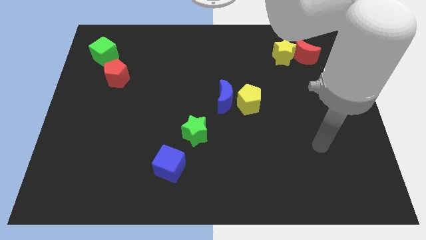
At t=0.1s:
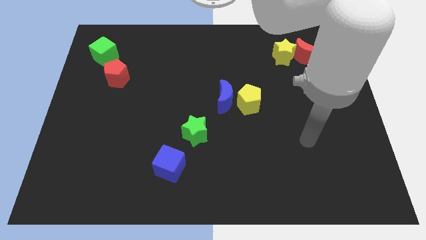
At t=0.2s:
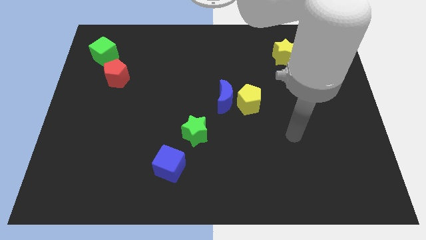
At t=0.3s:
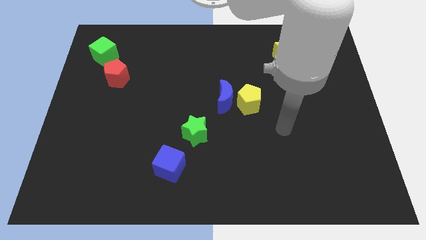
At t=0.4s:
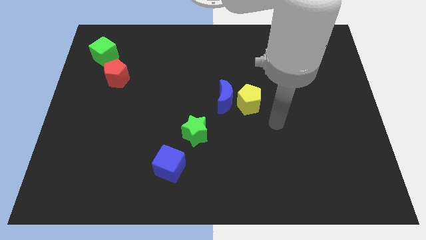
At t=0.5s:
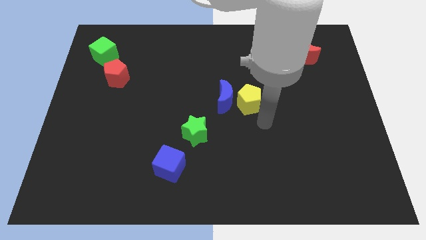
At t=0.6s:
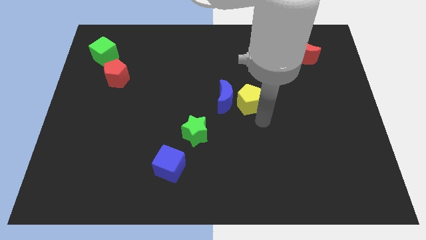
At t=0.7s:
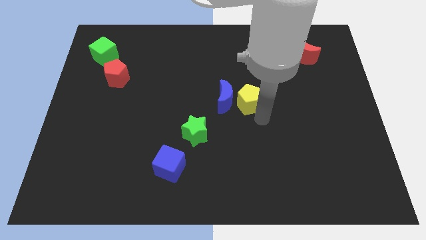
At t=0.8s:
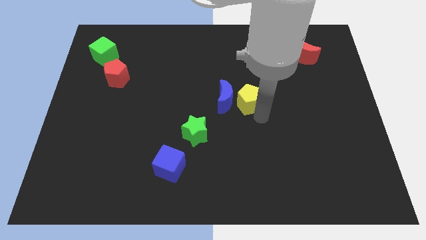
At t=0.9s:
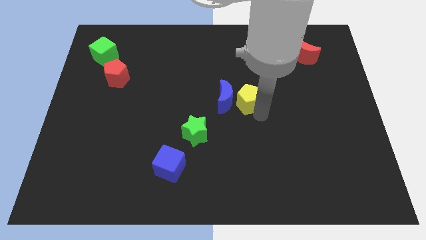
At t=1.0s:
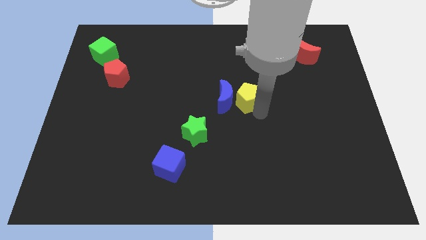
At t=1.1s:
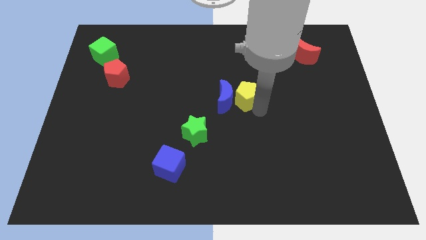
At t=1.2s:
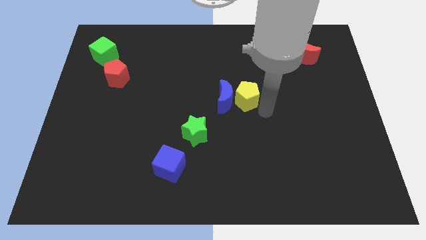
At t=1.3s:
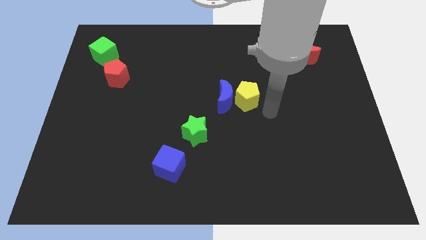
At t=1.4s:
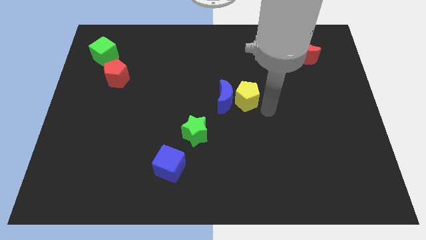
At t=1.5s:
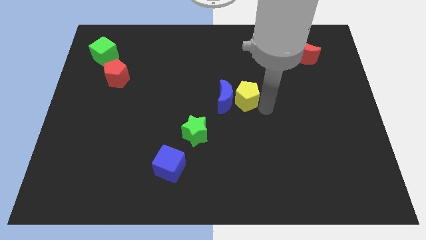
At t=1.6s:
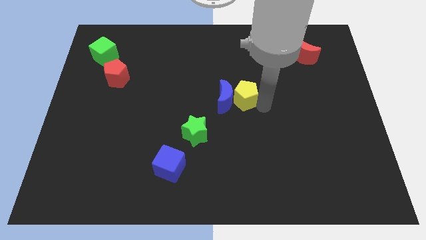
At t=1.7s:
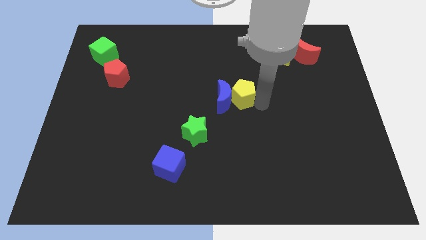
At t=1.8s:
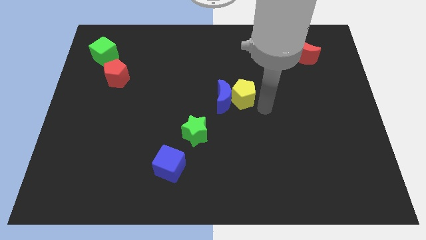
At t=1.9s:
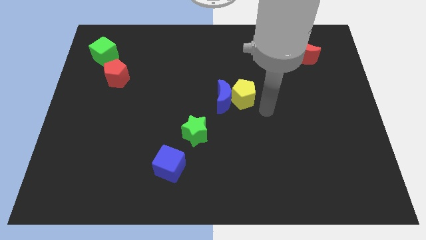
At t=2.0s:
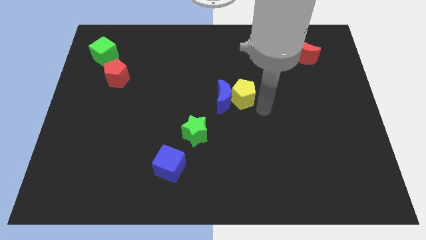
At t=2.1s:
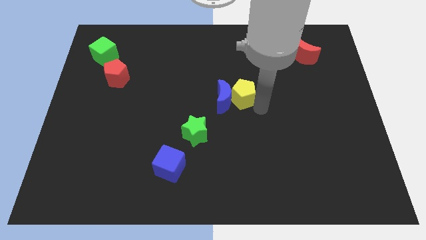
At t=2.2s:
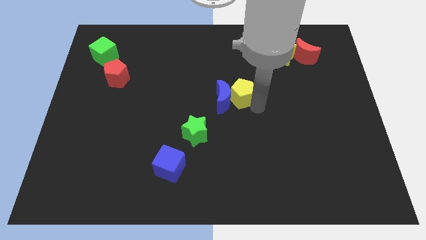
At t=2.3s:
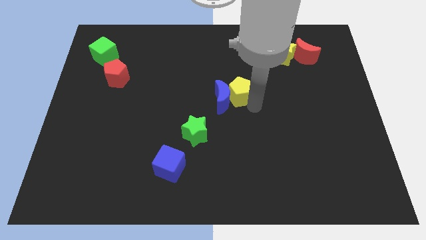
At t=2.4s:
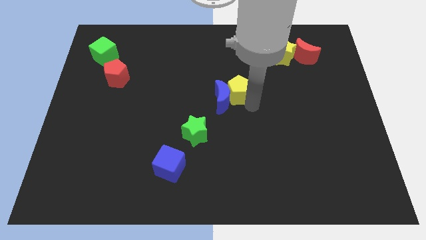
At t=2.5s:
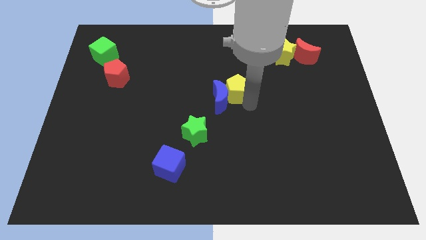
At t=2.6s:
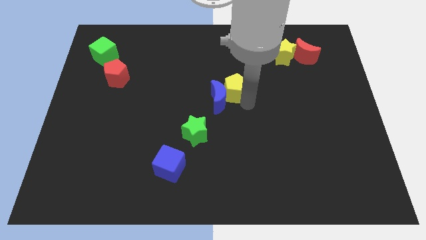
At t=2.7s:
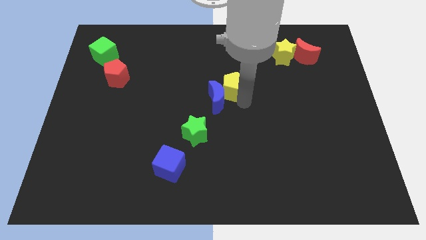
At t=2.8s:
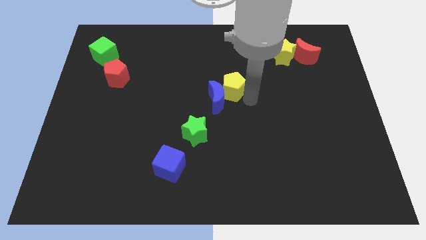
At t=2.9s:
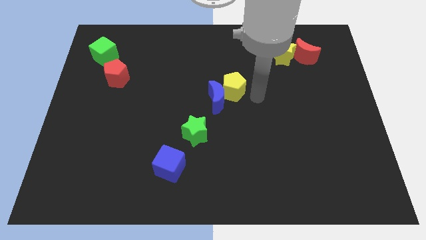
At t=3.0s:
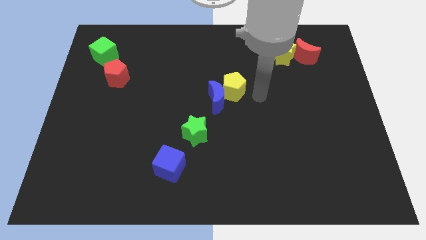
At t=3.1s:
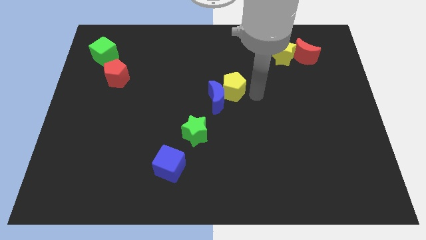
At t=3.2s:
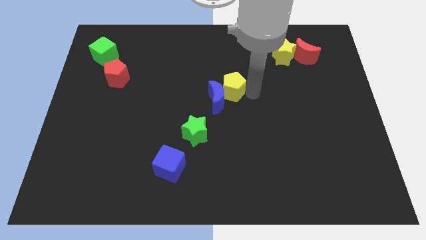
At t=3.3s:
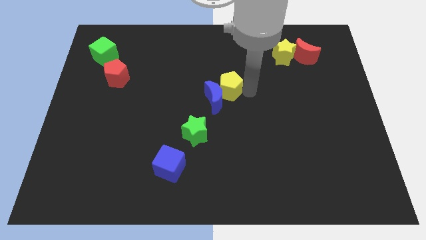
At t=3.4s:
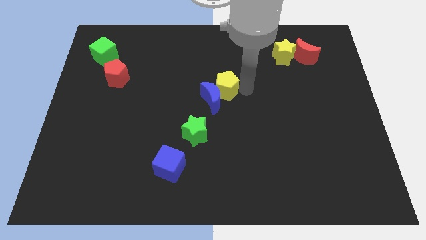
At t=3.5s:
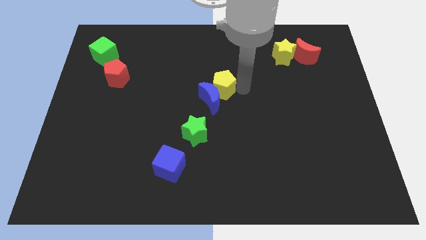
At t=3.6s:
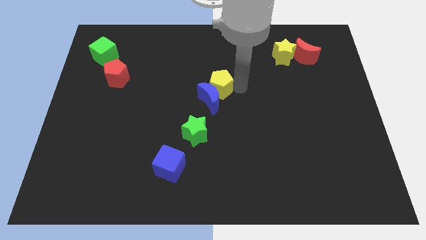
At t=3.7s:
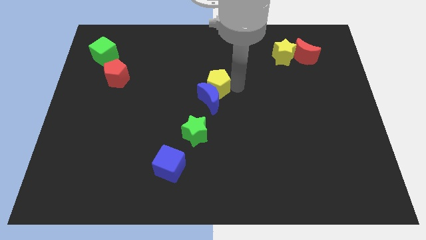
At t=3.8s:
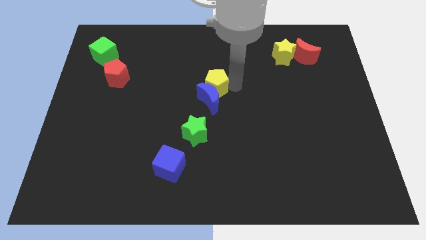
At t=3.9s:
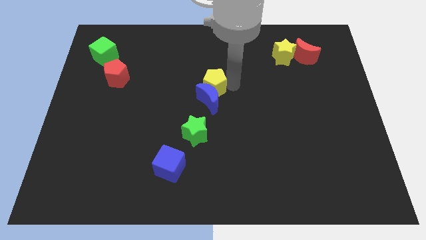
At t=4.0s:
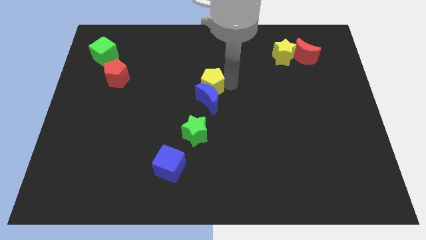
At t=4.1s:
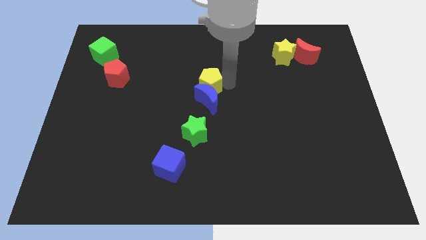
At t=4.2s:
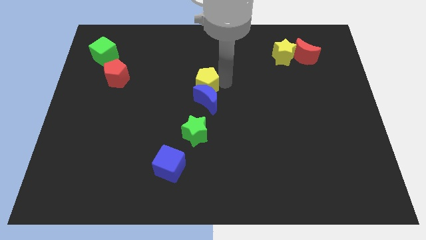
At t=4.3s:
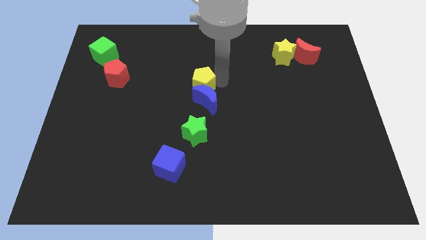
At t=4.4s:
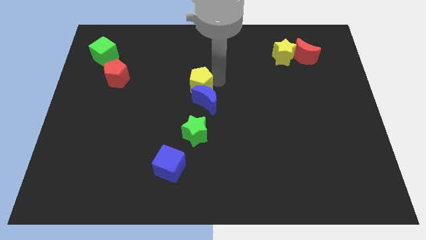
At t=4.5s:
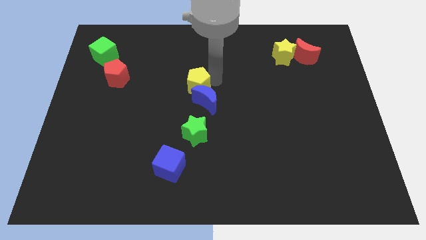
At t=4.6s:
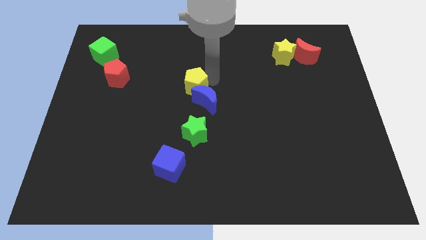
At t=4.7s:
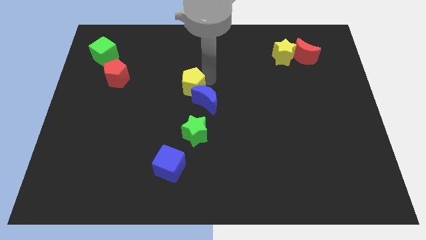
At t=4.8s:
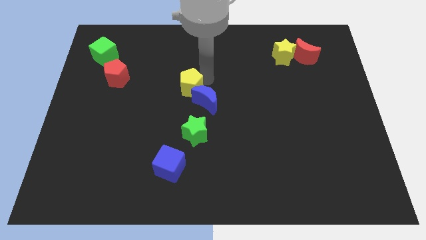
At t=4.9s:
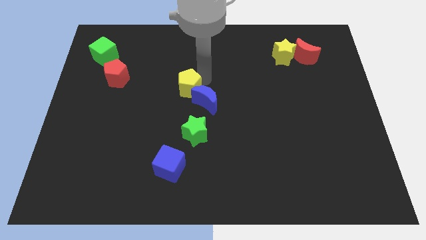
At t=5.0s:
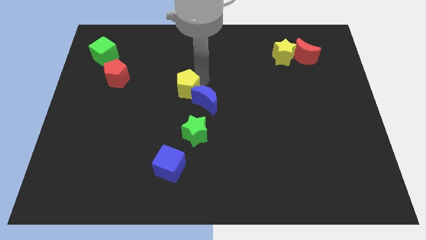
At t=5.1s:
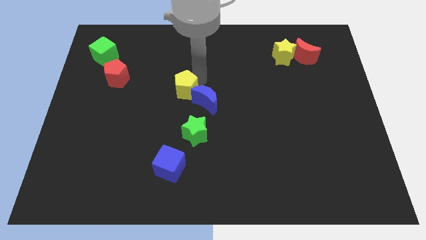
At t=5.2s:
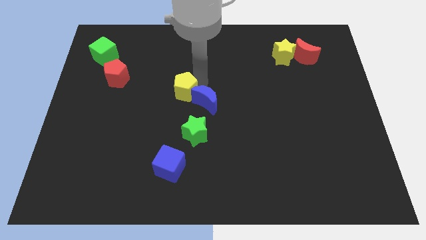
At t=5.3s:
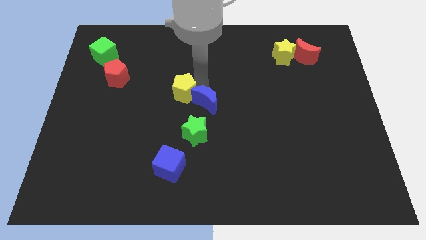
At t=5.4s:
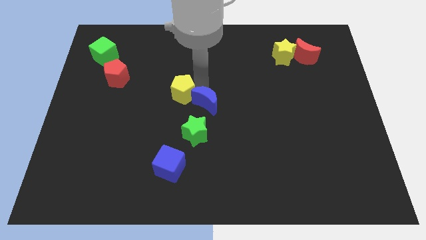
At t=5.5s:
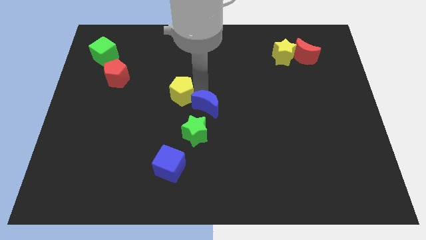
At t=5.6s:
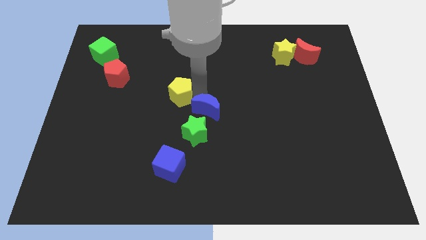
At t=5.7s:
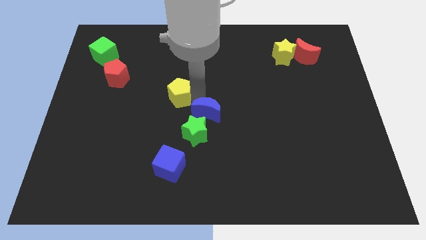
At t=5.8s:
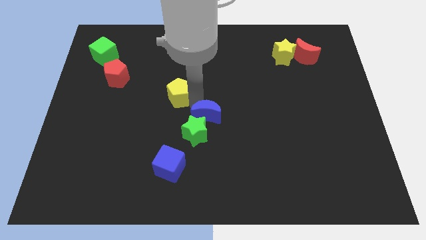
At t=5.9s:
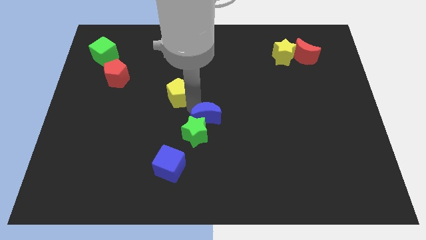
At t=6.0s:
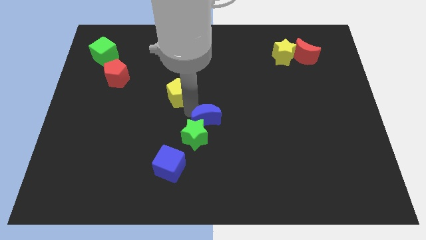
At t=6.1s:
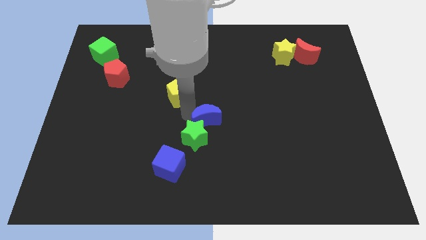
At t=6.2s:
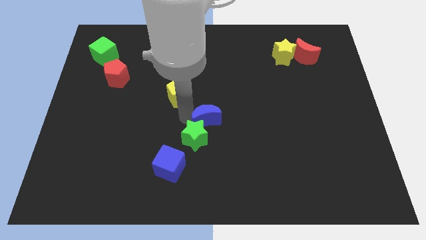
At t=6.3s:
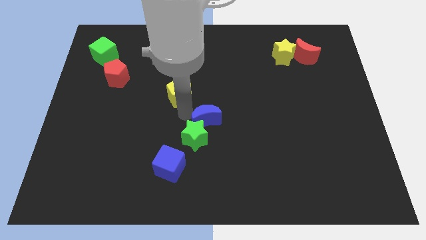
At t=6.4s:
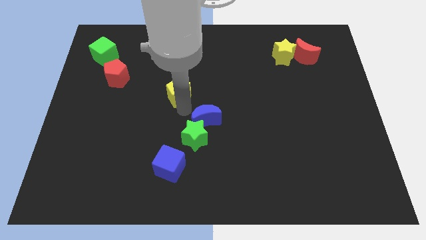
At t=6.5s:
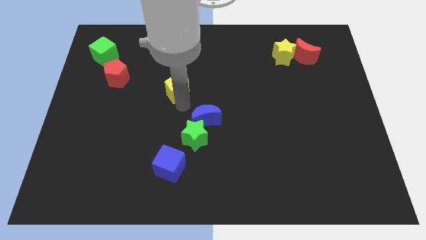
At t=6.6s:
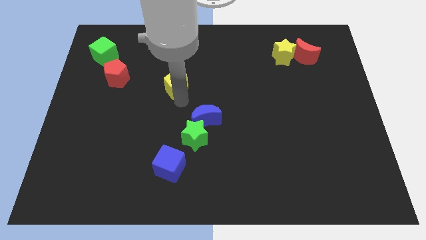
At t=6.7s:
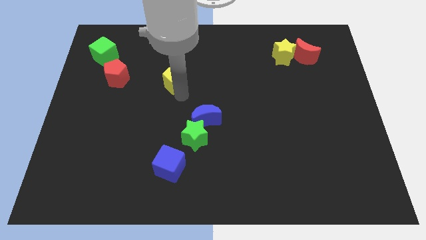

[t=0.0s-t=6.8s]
put the yellow pentagon just right of the red pentagon

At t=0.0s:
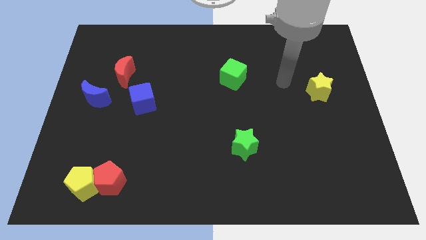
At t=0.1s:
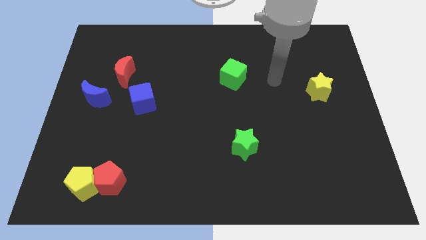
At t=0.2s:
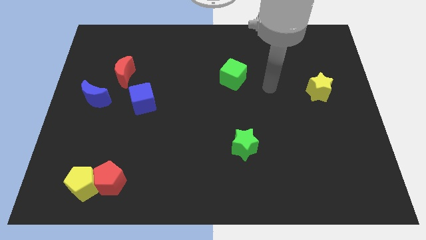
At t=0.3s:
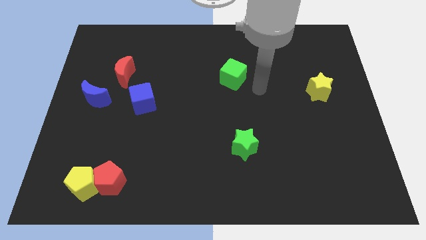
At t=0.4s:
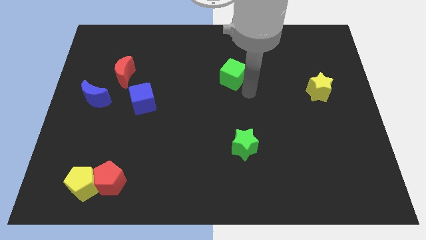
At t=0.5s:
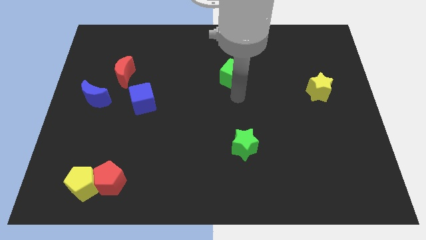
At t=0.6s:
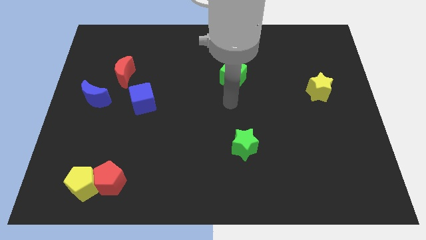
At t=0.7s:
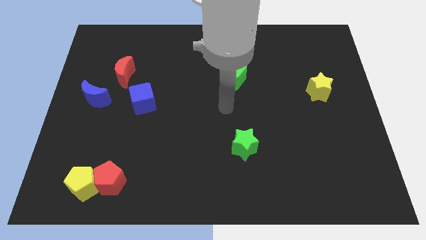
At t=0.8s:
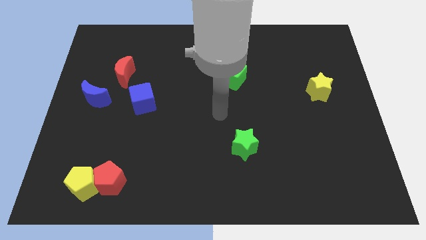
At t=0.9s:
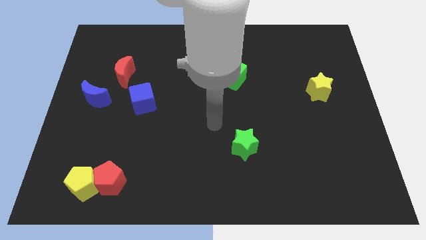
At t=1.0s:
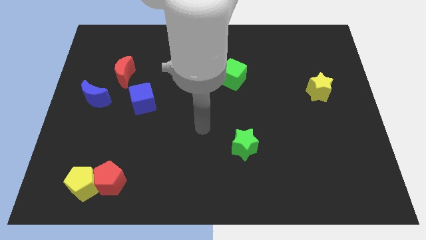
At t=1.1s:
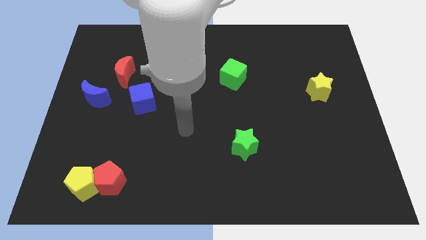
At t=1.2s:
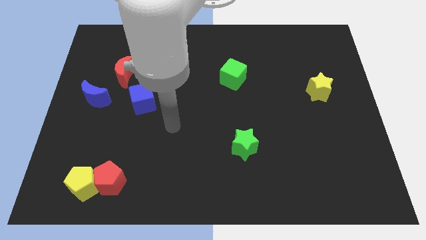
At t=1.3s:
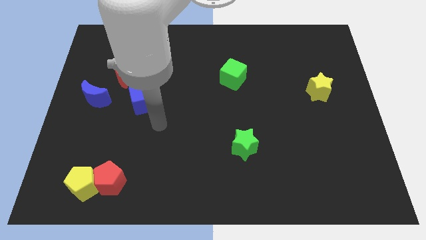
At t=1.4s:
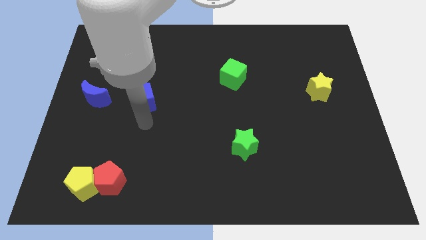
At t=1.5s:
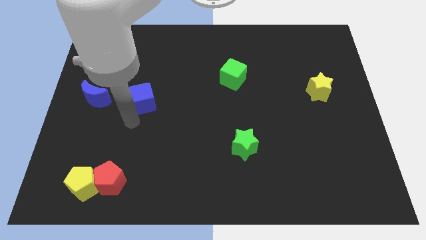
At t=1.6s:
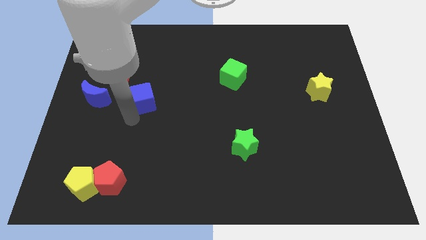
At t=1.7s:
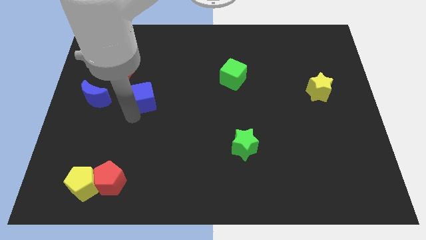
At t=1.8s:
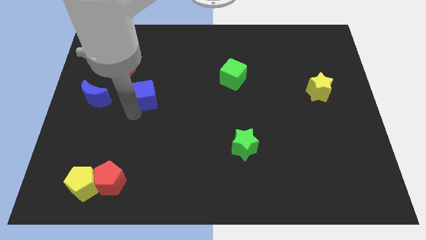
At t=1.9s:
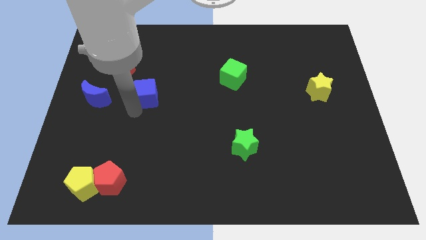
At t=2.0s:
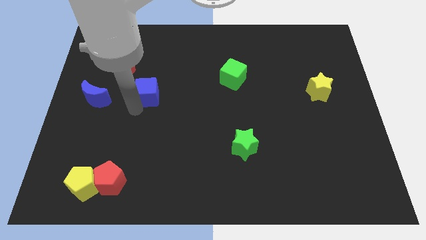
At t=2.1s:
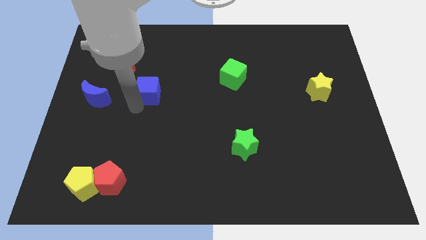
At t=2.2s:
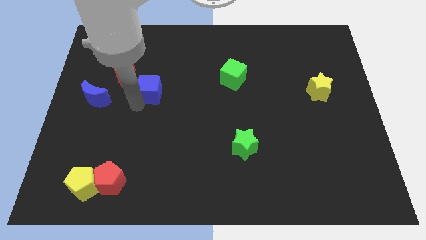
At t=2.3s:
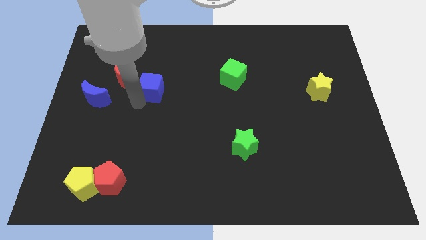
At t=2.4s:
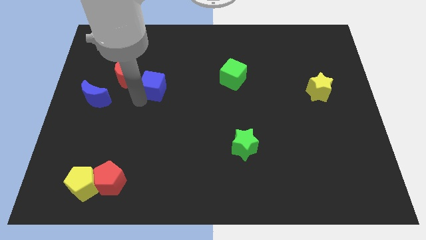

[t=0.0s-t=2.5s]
put the blue cube to the right of the red moon
